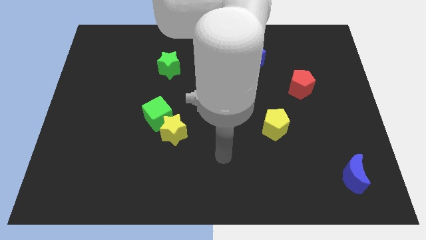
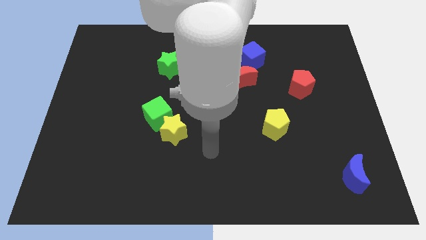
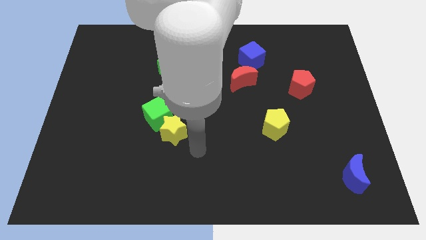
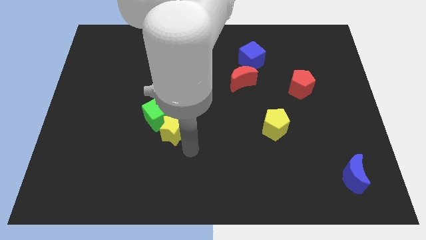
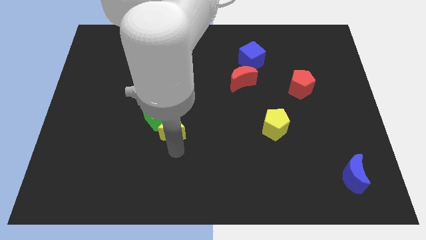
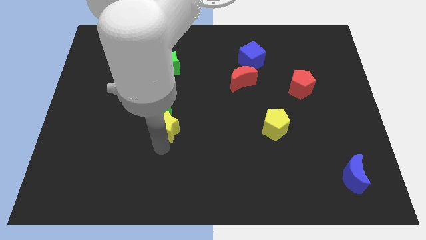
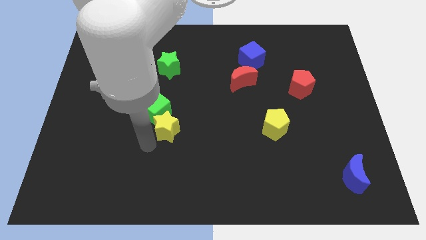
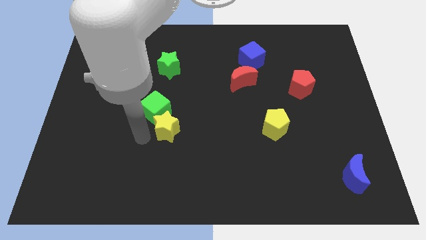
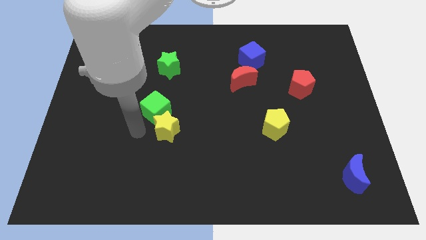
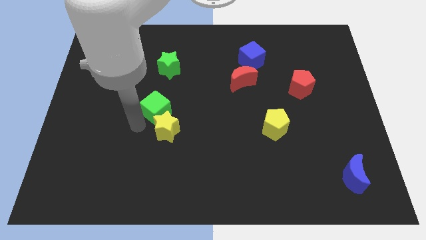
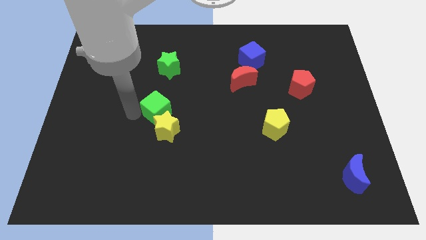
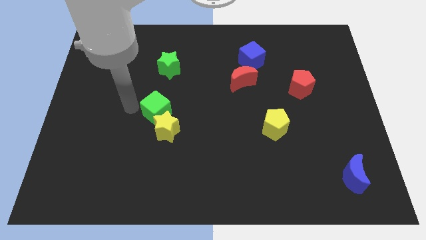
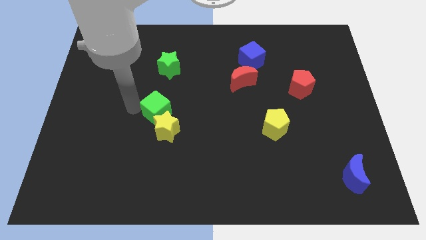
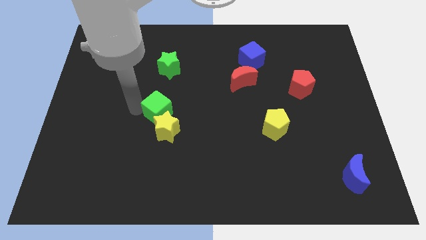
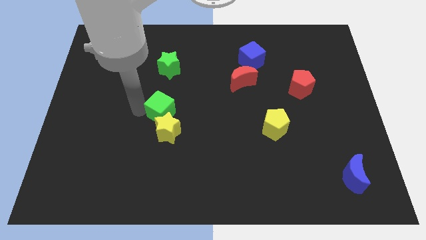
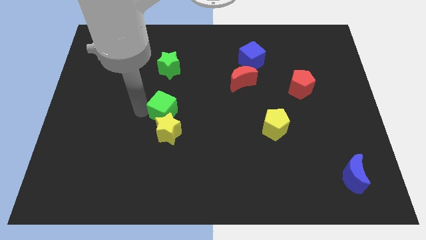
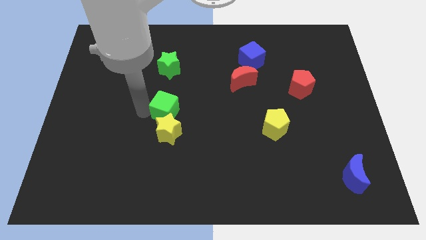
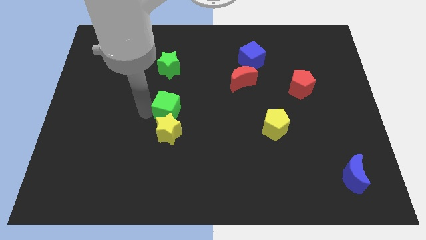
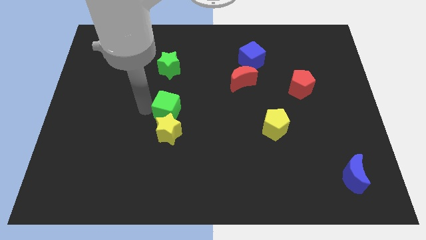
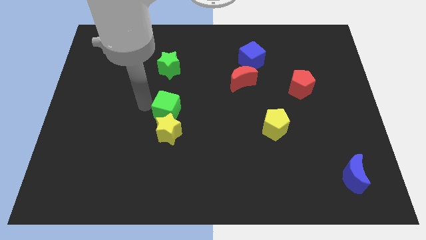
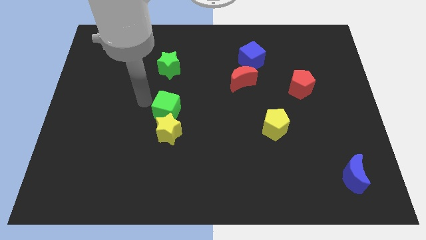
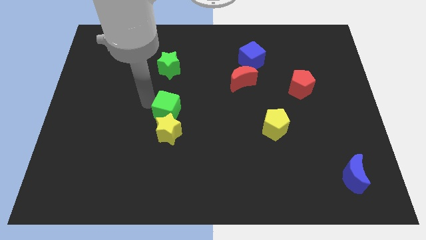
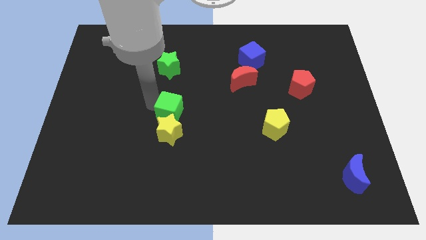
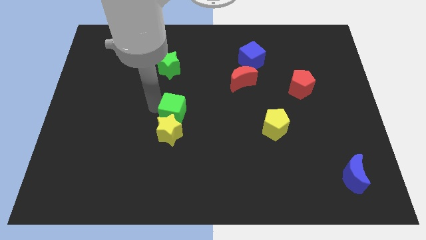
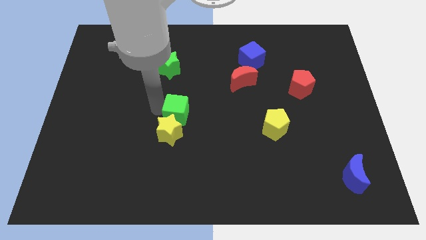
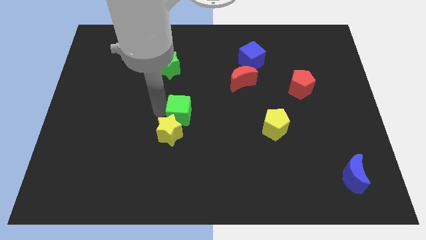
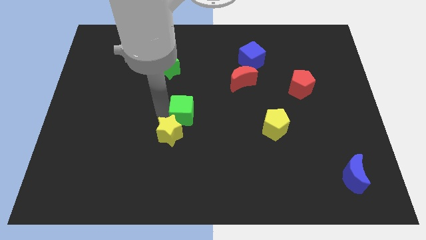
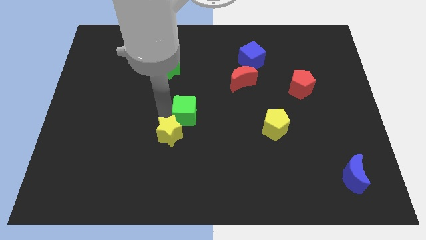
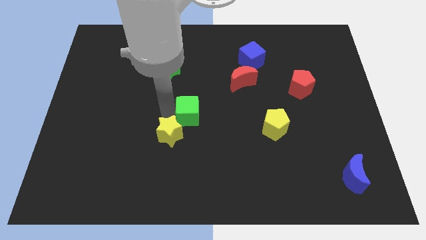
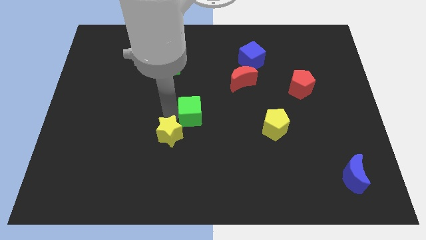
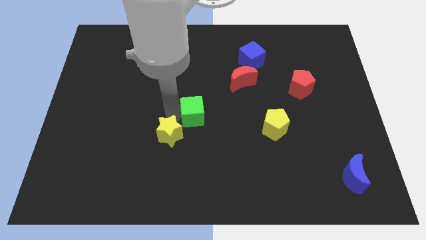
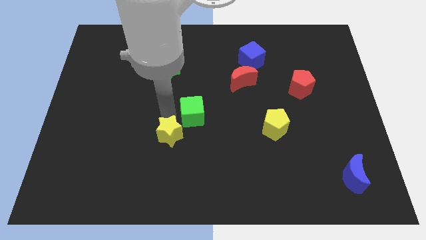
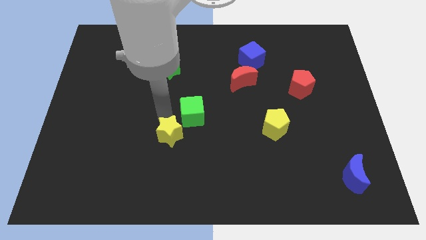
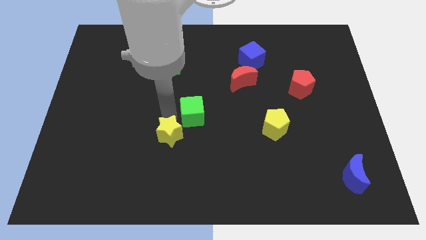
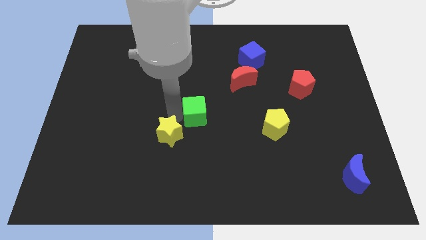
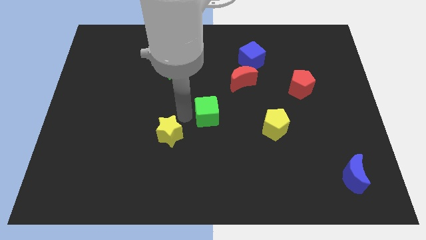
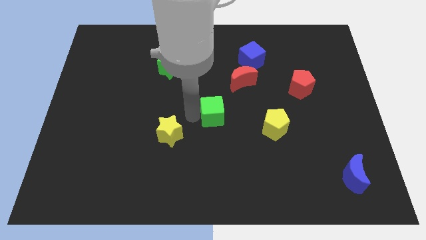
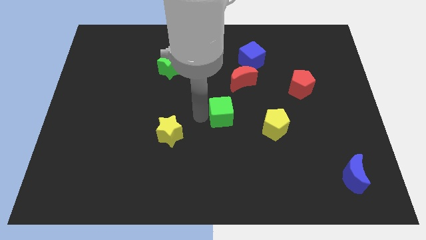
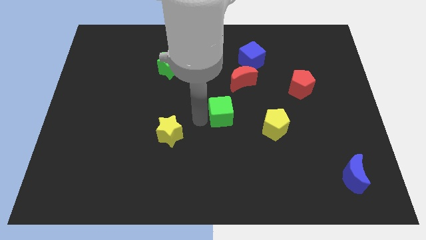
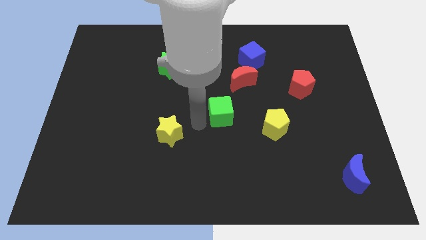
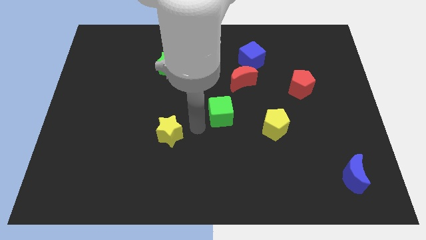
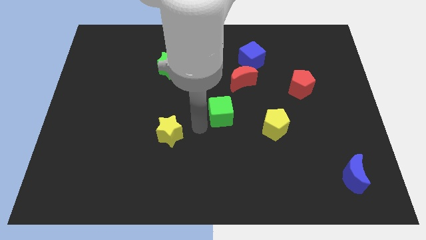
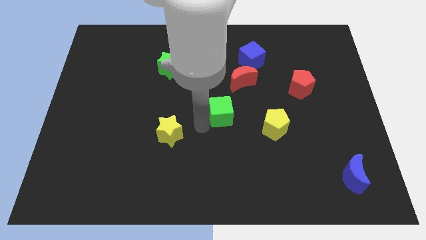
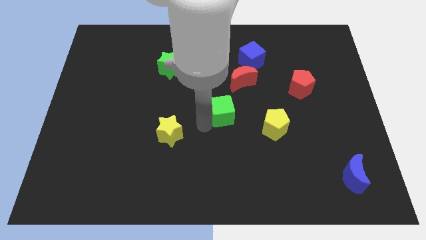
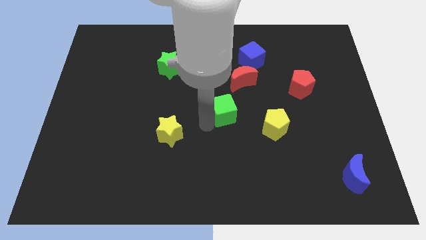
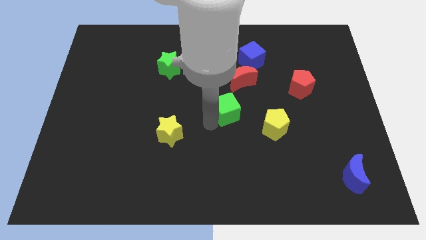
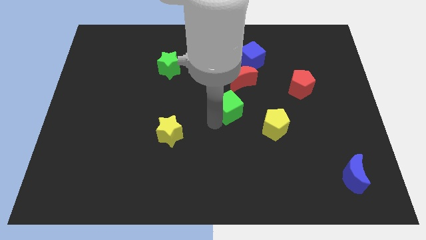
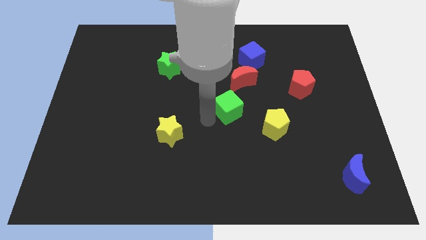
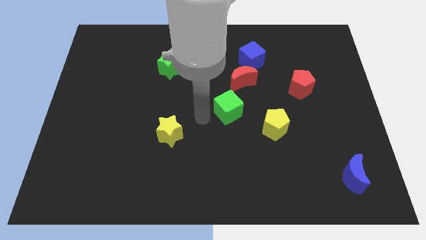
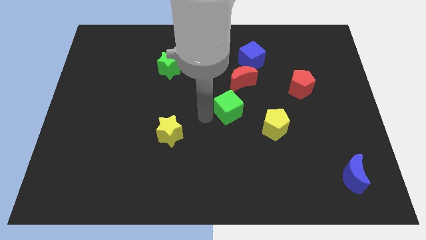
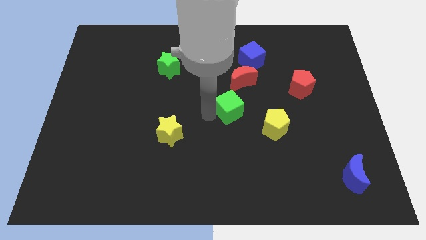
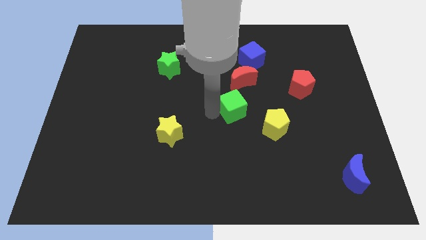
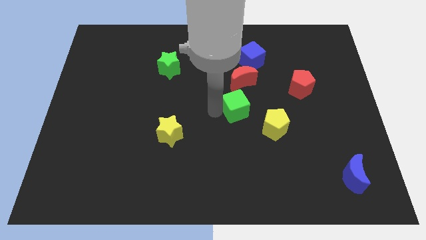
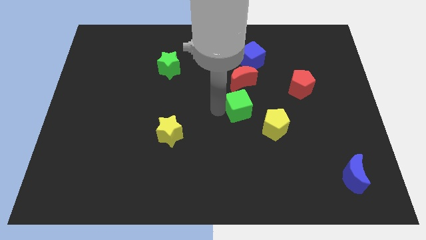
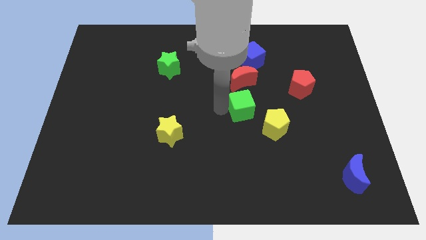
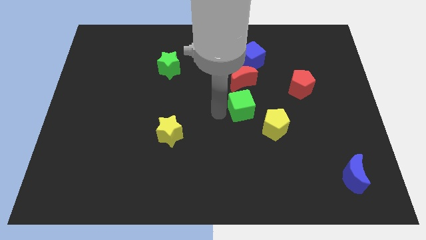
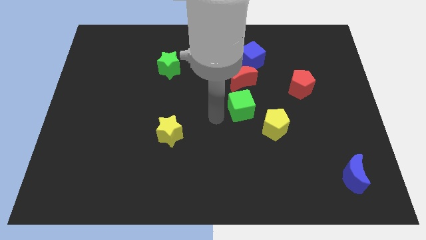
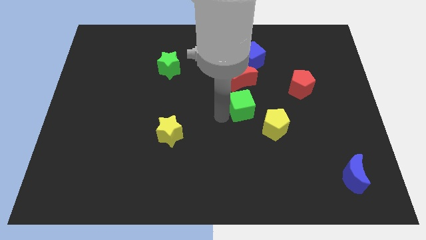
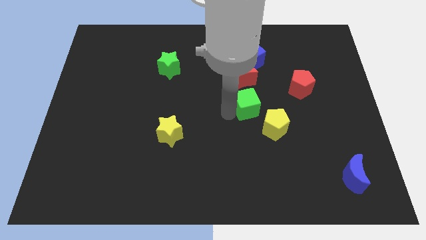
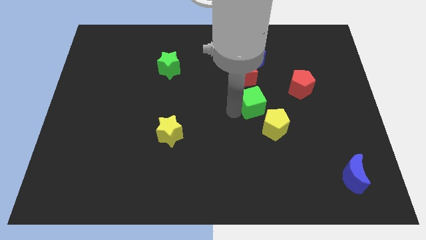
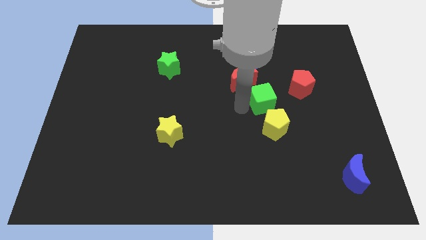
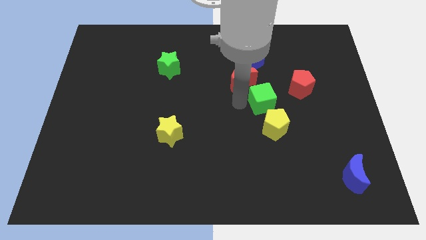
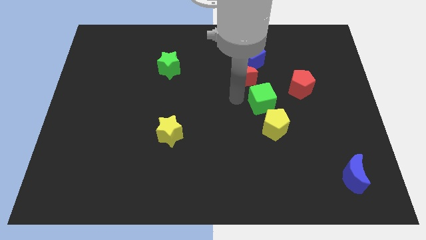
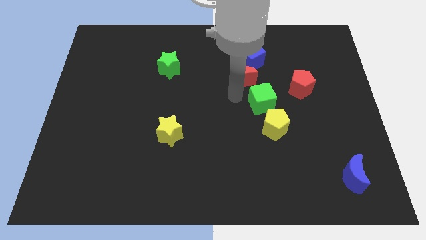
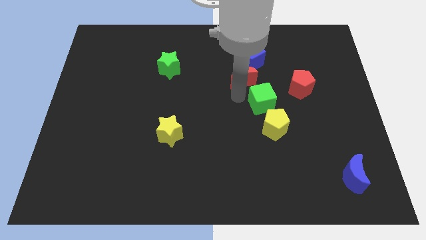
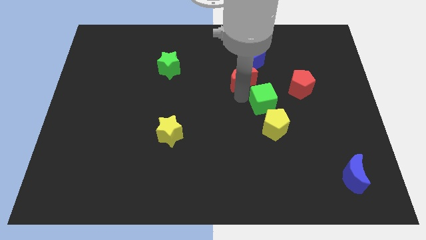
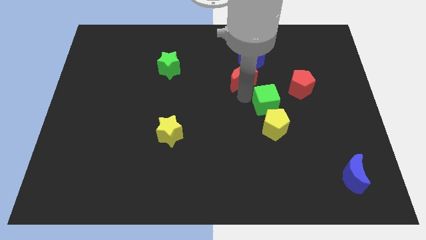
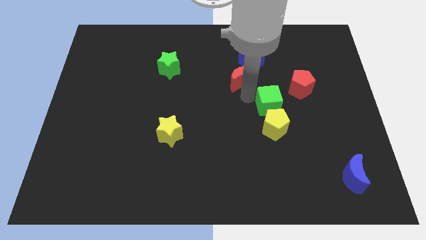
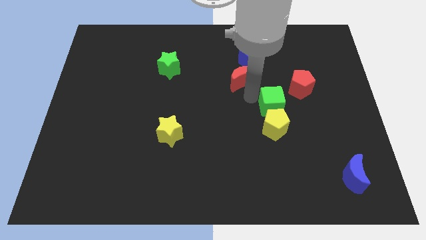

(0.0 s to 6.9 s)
push the green cube to the top right side of the yellow pentagon
